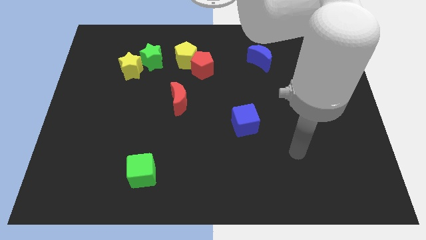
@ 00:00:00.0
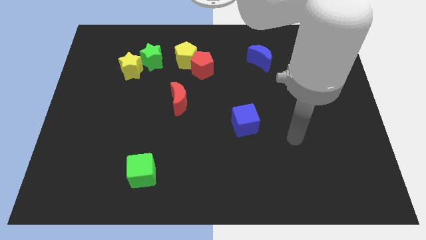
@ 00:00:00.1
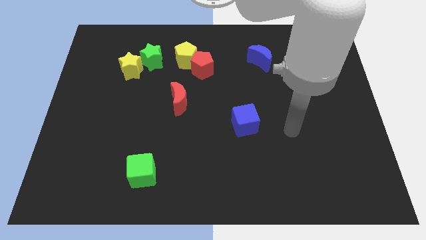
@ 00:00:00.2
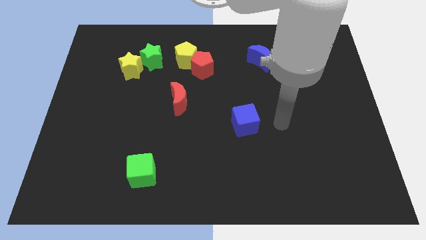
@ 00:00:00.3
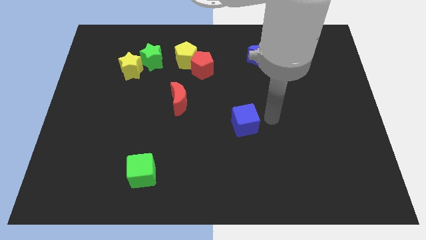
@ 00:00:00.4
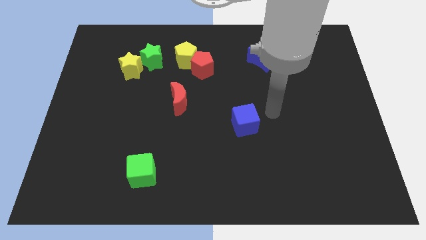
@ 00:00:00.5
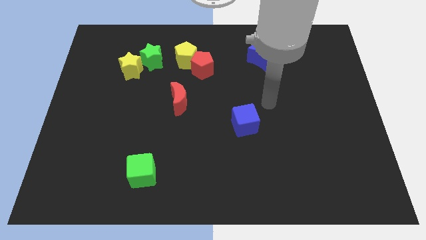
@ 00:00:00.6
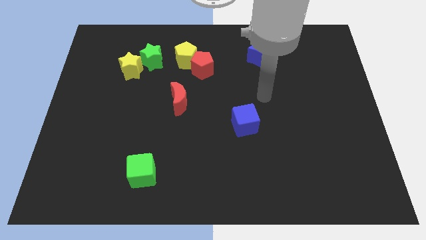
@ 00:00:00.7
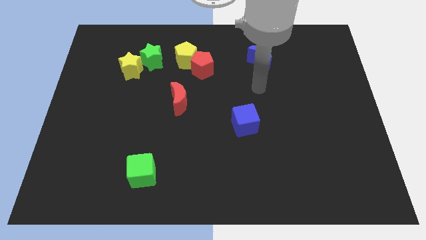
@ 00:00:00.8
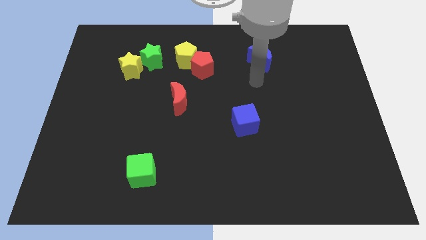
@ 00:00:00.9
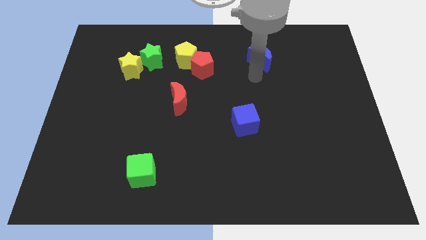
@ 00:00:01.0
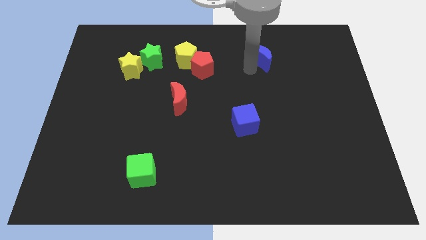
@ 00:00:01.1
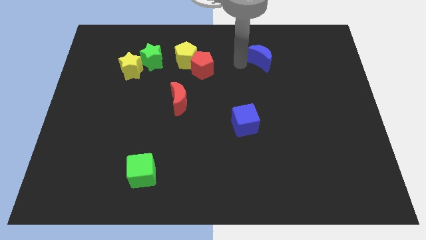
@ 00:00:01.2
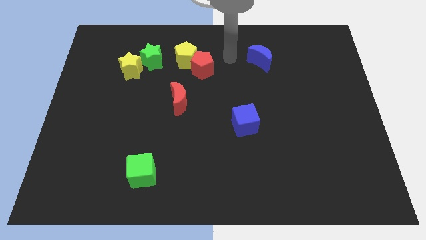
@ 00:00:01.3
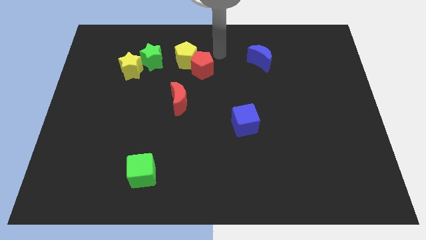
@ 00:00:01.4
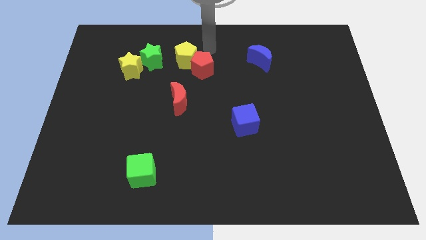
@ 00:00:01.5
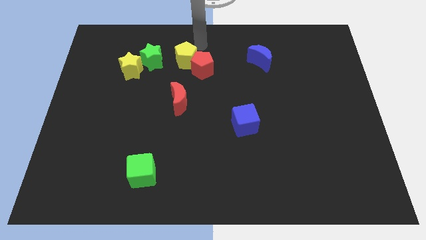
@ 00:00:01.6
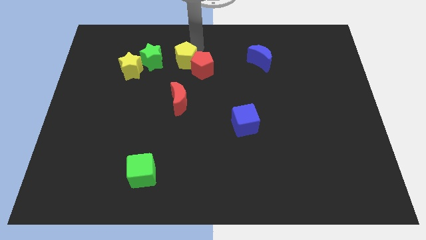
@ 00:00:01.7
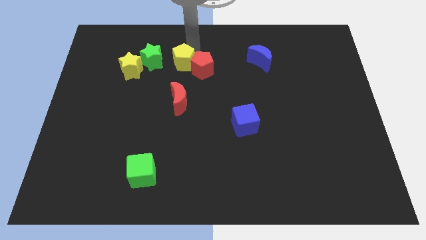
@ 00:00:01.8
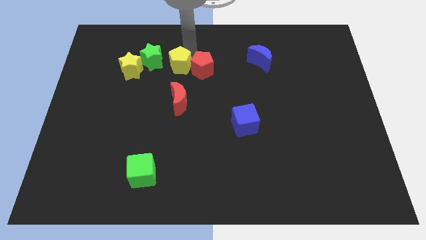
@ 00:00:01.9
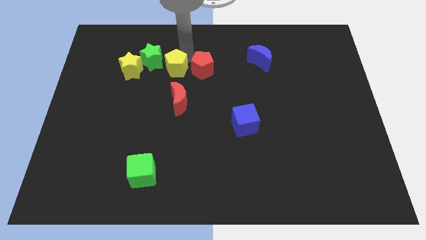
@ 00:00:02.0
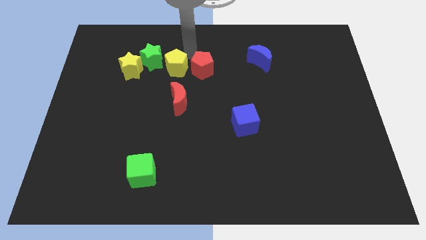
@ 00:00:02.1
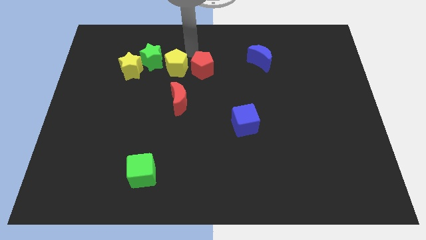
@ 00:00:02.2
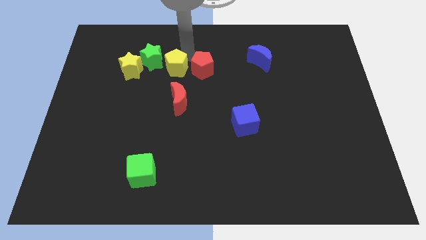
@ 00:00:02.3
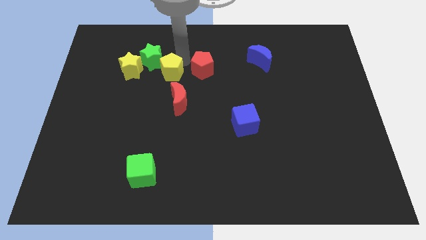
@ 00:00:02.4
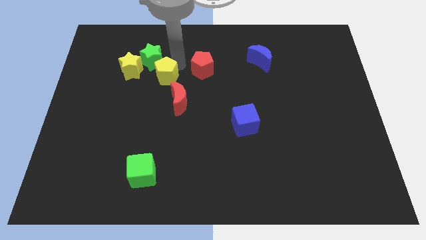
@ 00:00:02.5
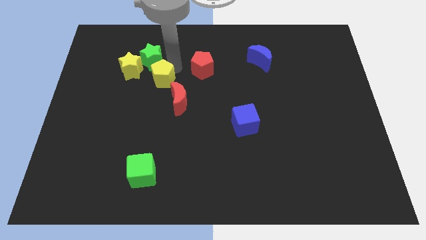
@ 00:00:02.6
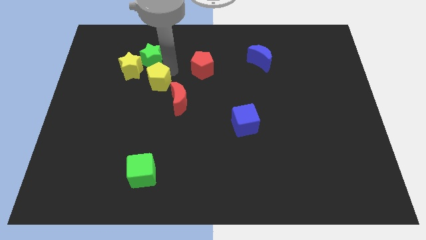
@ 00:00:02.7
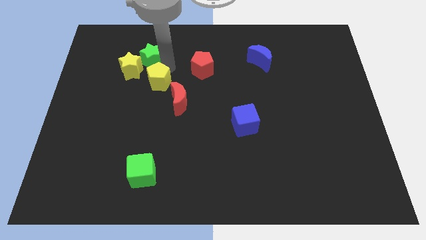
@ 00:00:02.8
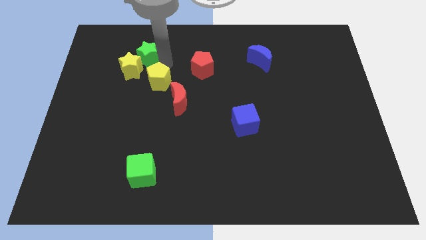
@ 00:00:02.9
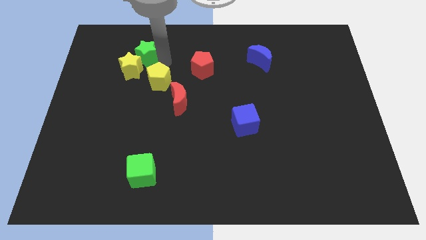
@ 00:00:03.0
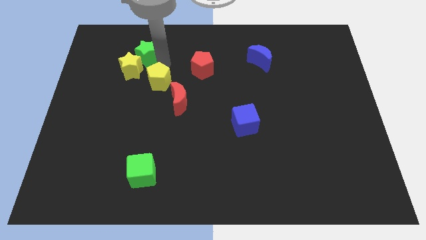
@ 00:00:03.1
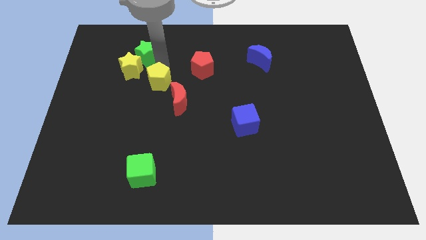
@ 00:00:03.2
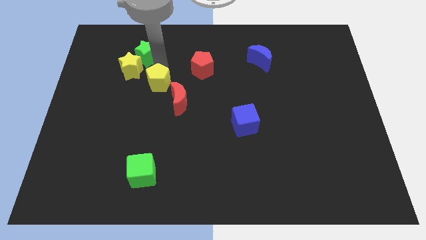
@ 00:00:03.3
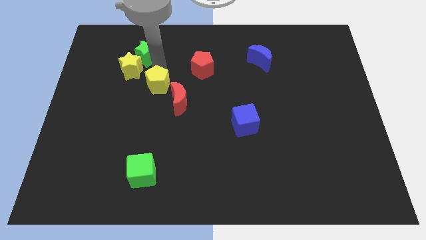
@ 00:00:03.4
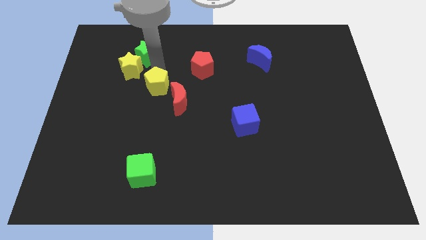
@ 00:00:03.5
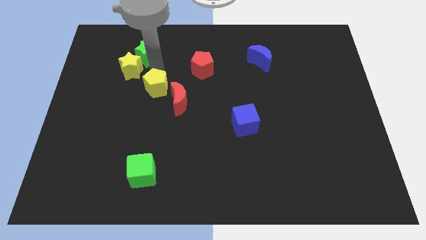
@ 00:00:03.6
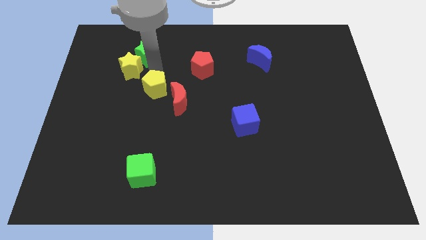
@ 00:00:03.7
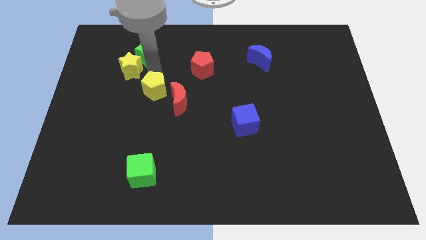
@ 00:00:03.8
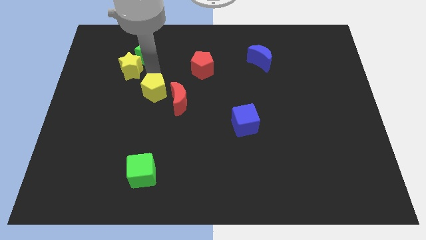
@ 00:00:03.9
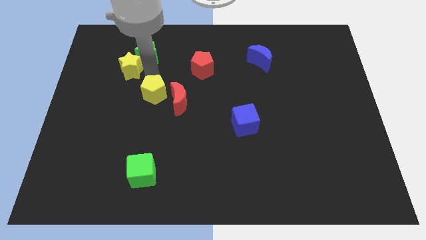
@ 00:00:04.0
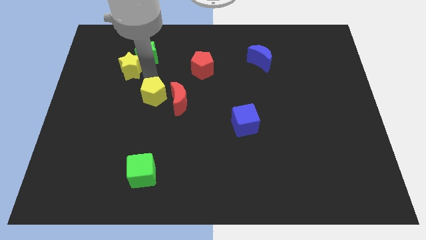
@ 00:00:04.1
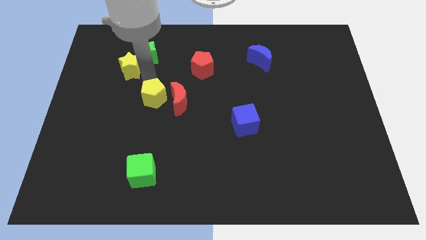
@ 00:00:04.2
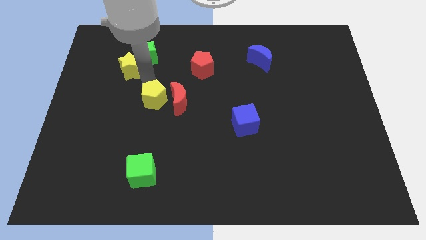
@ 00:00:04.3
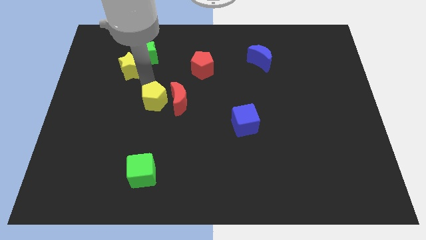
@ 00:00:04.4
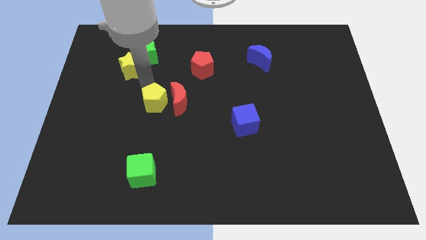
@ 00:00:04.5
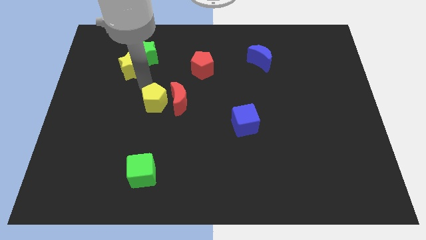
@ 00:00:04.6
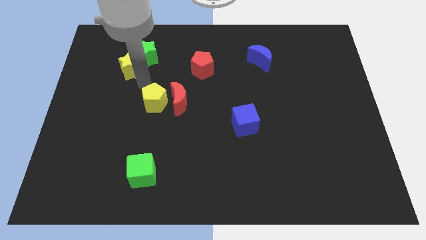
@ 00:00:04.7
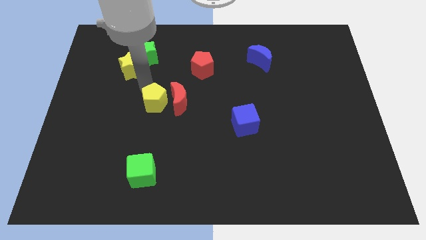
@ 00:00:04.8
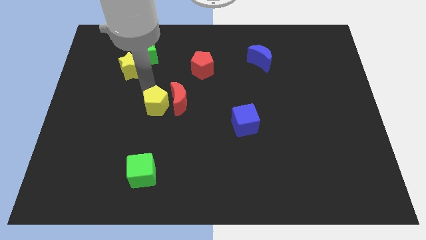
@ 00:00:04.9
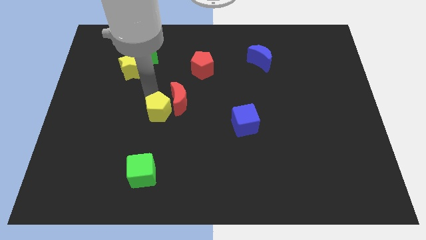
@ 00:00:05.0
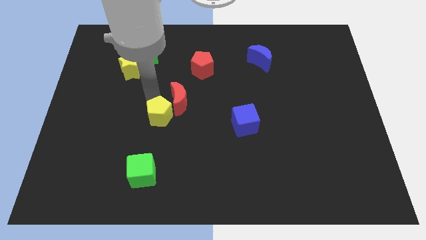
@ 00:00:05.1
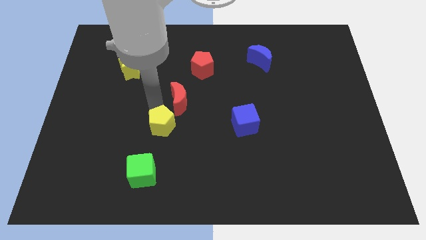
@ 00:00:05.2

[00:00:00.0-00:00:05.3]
slide the yellow pentagon down

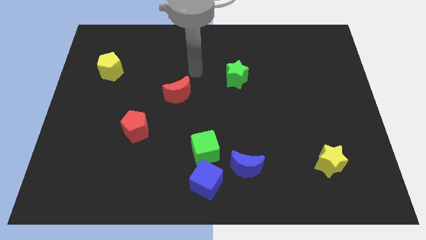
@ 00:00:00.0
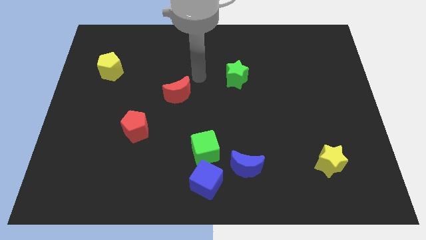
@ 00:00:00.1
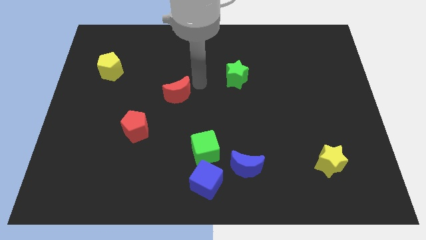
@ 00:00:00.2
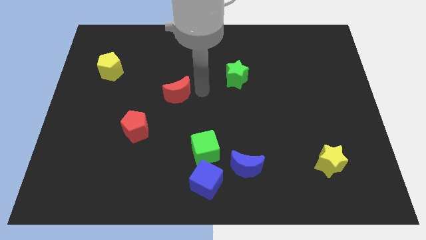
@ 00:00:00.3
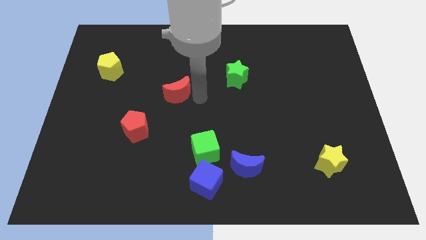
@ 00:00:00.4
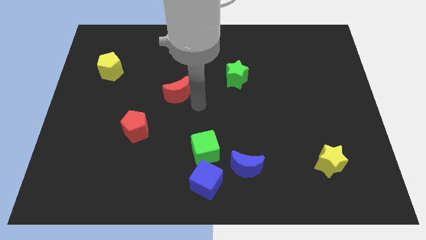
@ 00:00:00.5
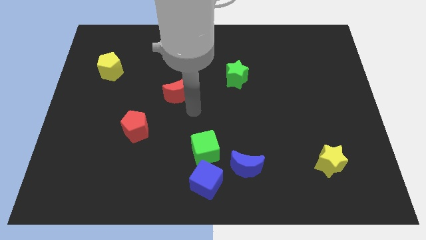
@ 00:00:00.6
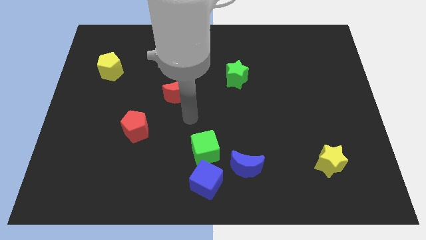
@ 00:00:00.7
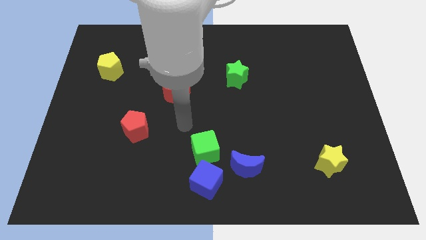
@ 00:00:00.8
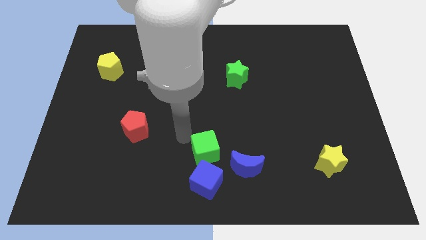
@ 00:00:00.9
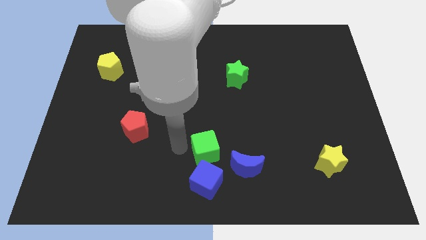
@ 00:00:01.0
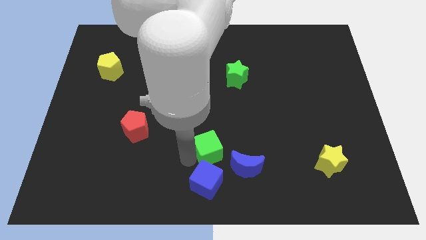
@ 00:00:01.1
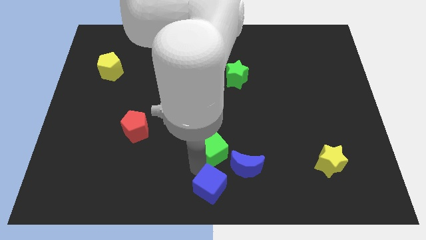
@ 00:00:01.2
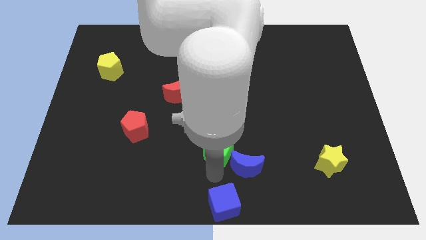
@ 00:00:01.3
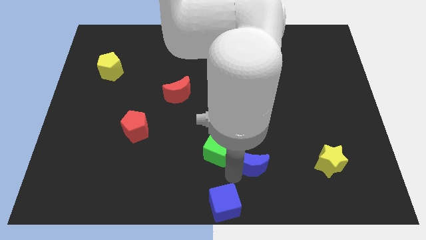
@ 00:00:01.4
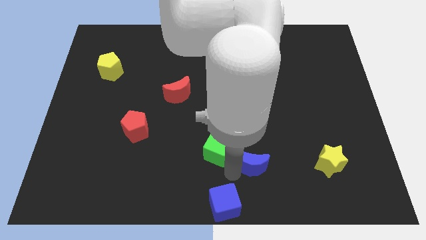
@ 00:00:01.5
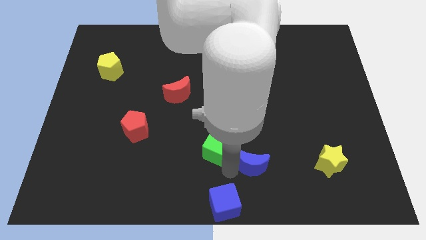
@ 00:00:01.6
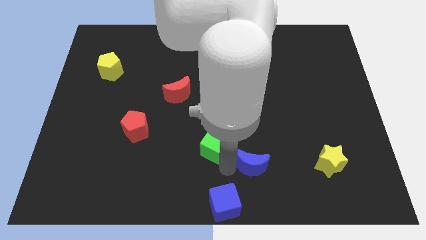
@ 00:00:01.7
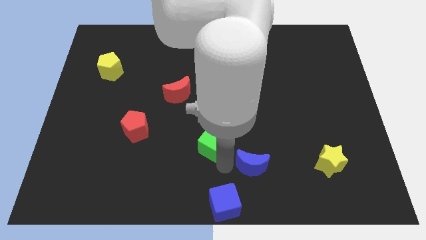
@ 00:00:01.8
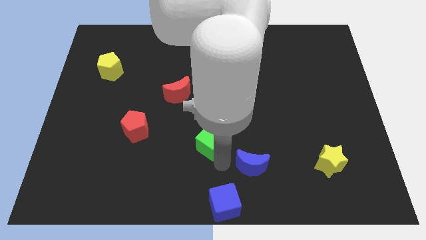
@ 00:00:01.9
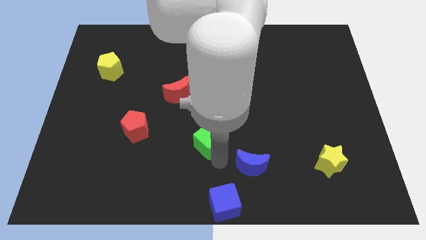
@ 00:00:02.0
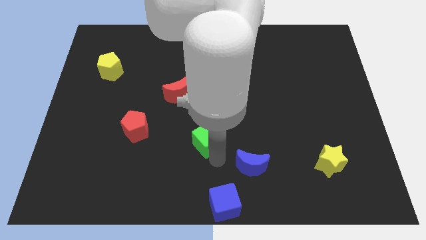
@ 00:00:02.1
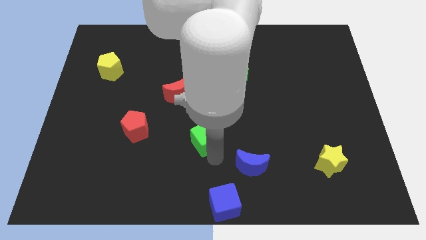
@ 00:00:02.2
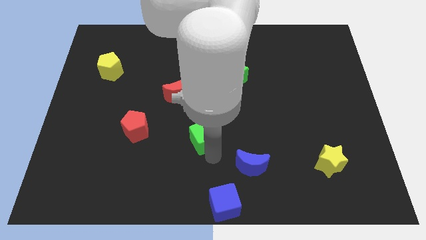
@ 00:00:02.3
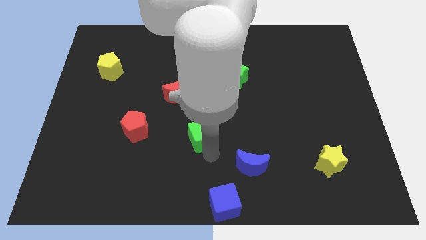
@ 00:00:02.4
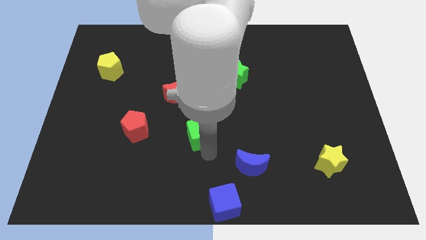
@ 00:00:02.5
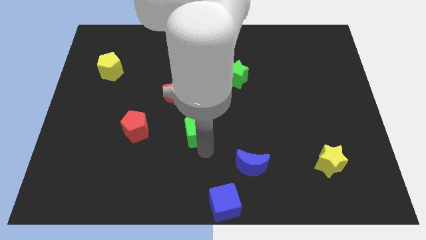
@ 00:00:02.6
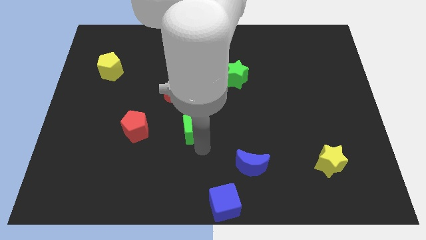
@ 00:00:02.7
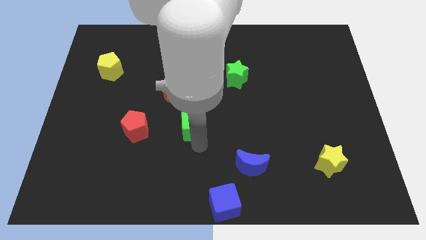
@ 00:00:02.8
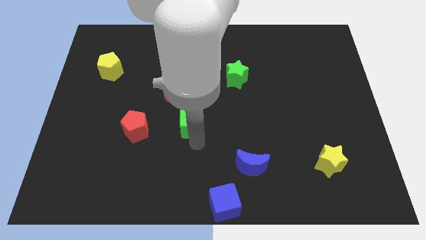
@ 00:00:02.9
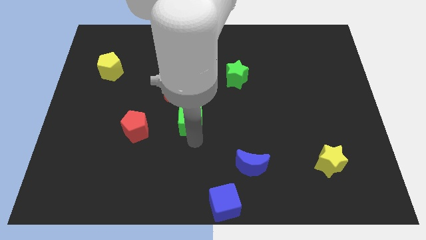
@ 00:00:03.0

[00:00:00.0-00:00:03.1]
move the green cube upwards a bit
